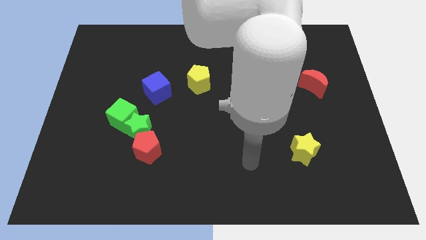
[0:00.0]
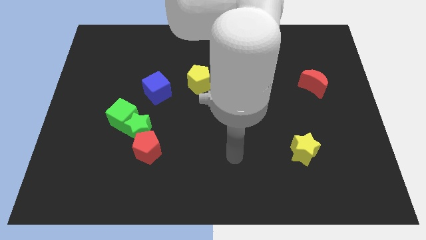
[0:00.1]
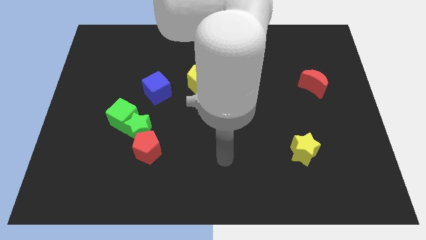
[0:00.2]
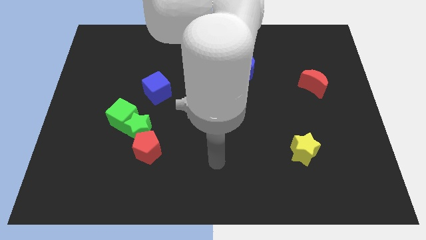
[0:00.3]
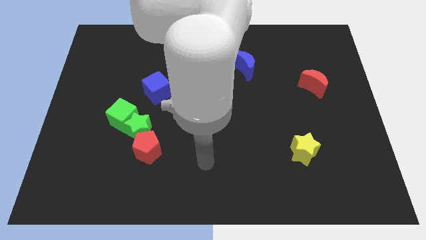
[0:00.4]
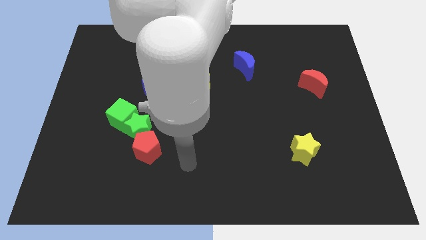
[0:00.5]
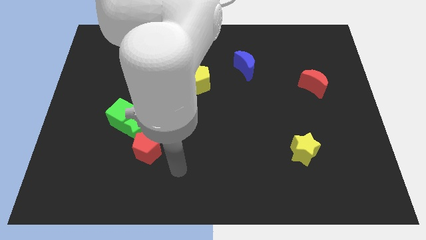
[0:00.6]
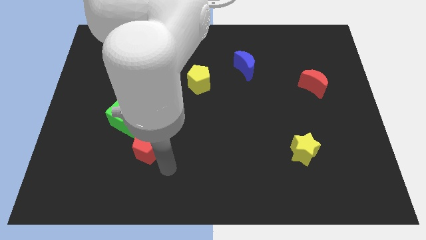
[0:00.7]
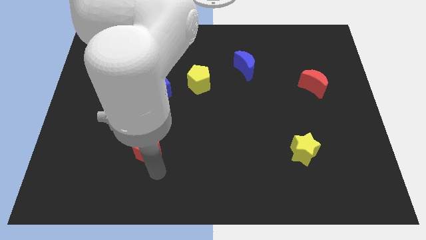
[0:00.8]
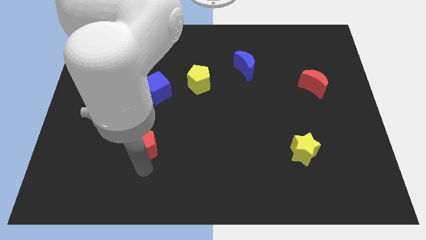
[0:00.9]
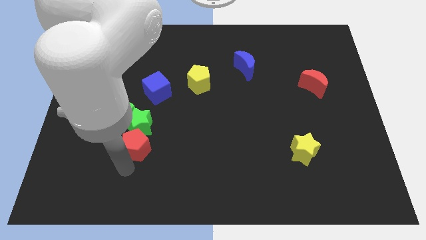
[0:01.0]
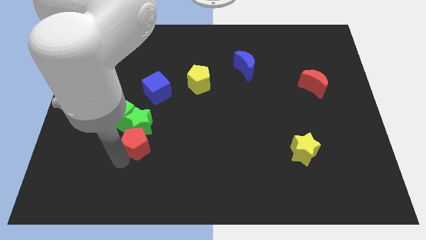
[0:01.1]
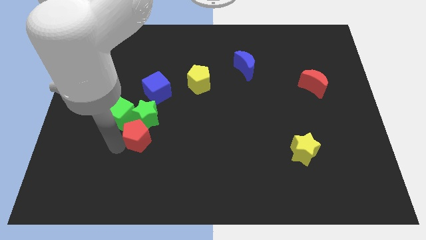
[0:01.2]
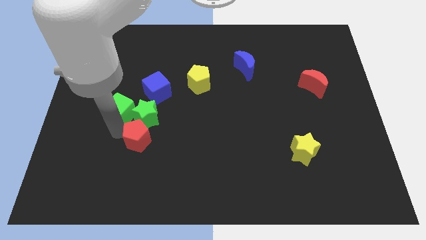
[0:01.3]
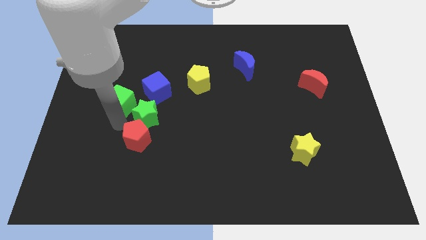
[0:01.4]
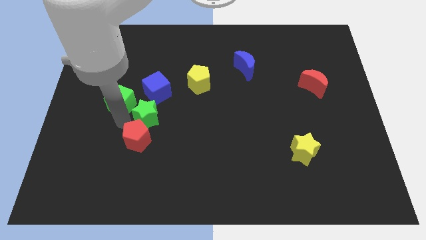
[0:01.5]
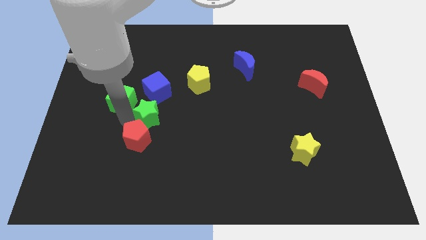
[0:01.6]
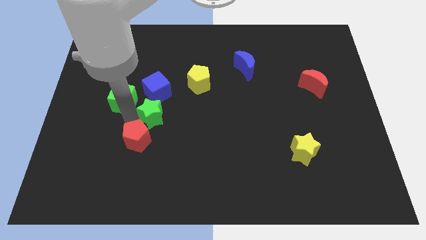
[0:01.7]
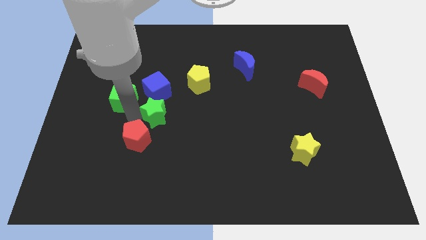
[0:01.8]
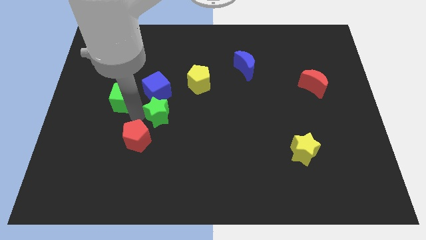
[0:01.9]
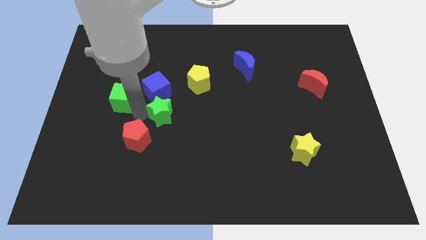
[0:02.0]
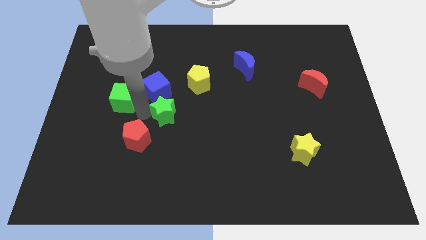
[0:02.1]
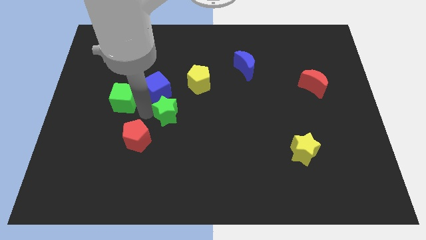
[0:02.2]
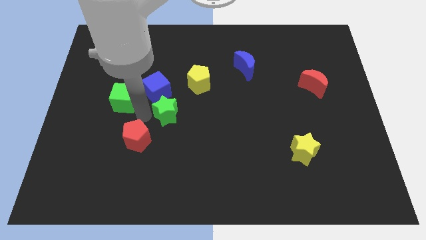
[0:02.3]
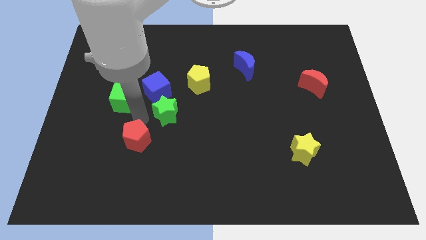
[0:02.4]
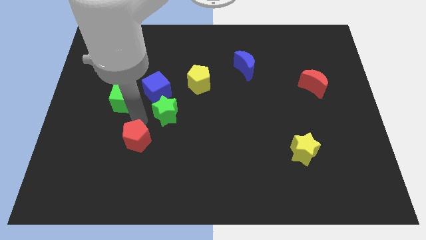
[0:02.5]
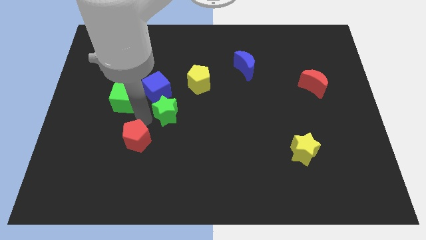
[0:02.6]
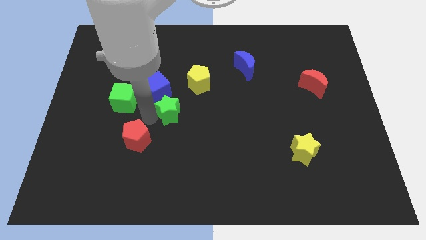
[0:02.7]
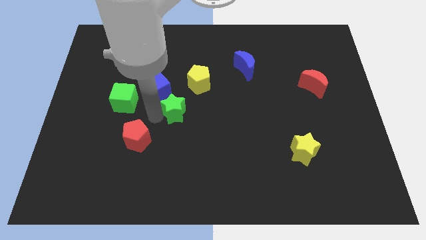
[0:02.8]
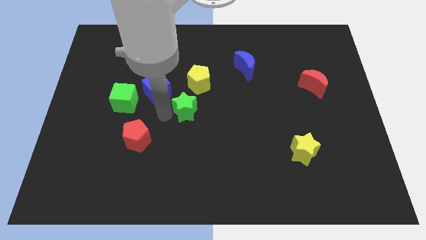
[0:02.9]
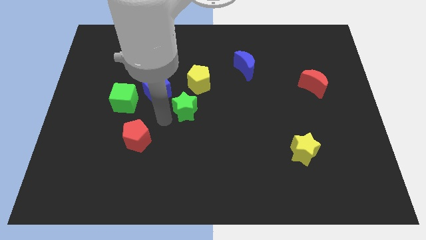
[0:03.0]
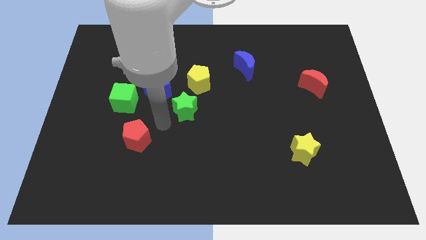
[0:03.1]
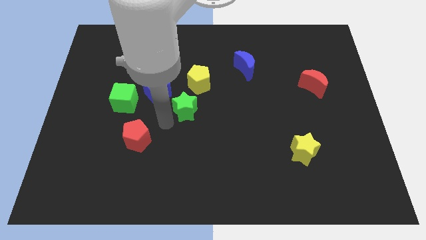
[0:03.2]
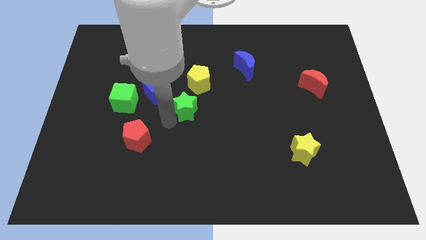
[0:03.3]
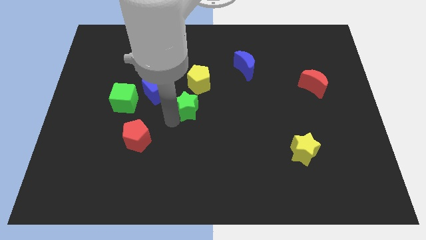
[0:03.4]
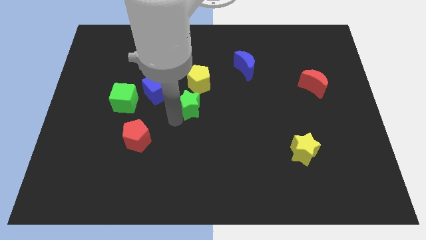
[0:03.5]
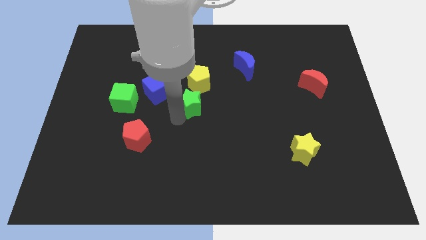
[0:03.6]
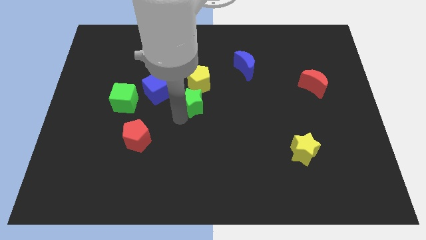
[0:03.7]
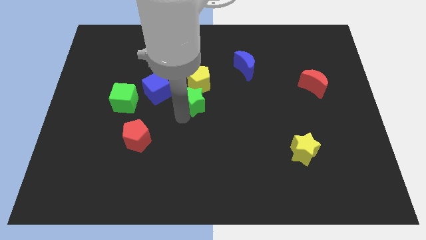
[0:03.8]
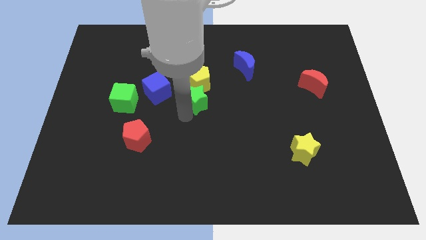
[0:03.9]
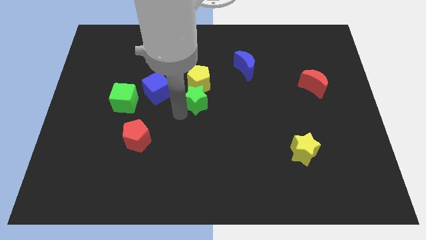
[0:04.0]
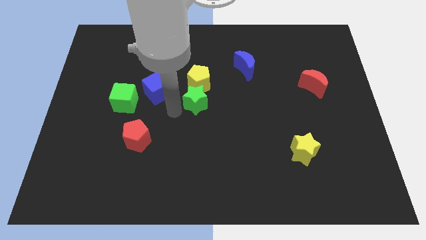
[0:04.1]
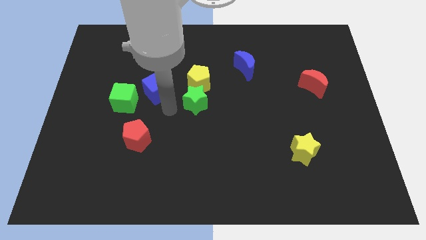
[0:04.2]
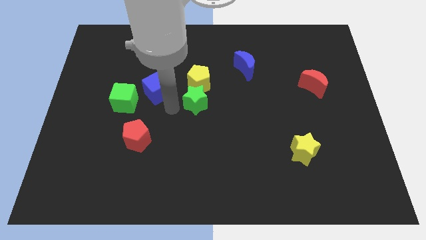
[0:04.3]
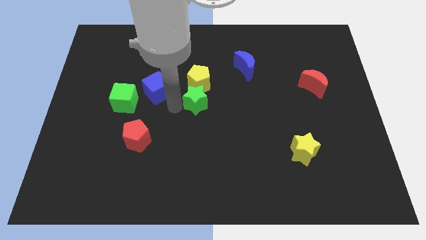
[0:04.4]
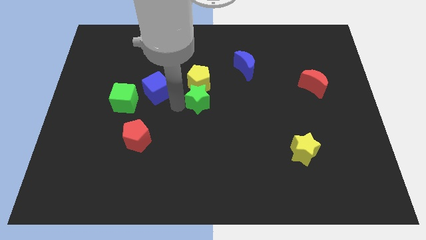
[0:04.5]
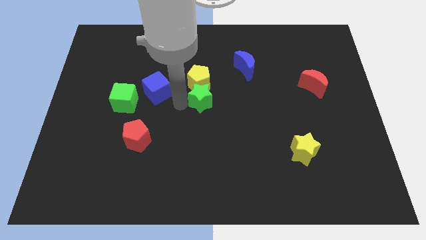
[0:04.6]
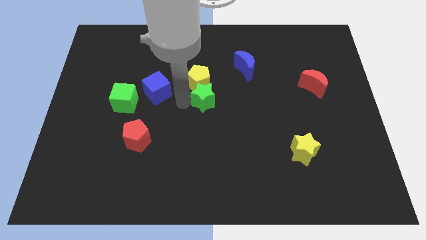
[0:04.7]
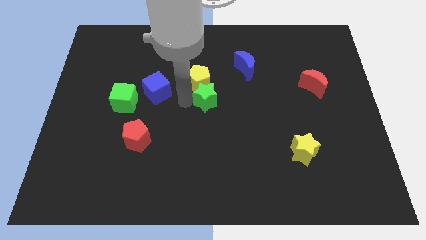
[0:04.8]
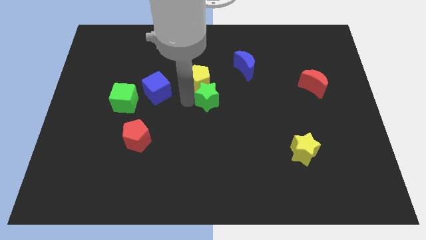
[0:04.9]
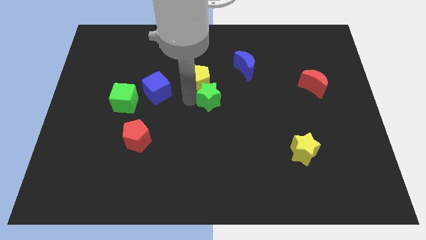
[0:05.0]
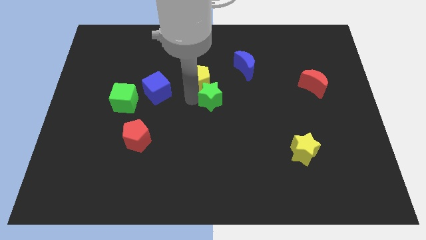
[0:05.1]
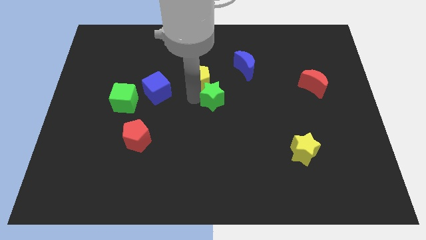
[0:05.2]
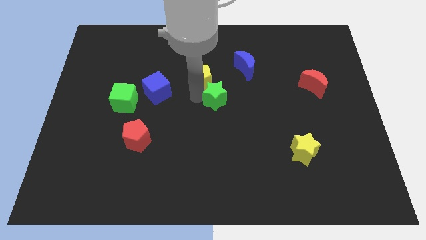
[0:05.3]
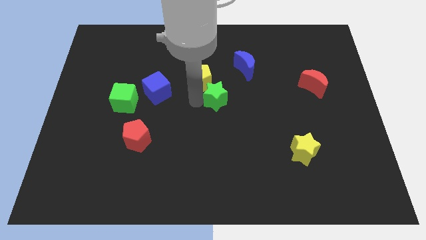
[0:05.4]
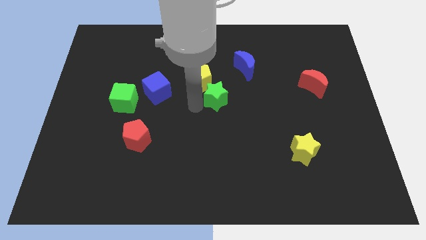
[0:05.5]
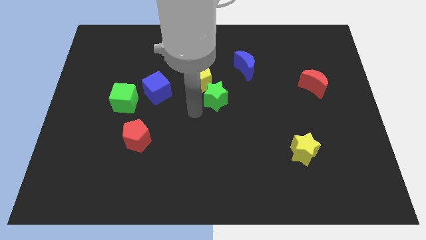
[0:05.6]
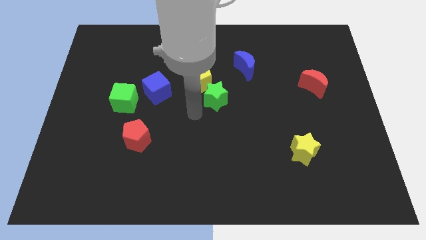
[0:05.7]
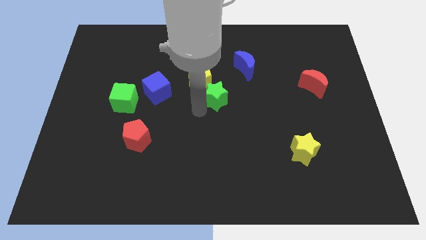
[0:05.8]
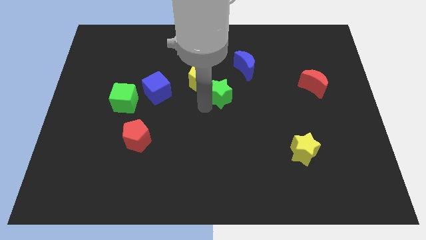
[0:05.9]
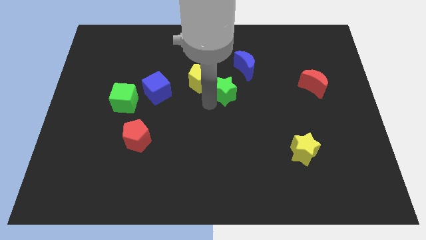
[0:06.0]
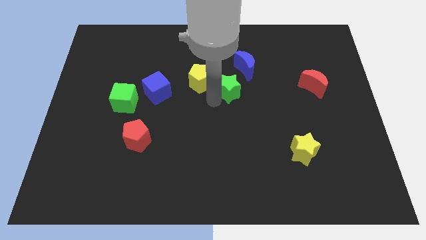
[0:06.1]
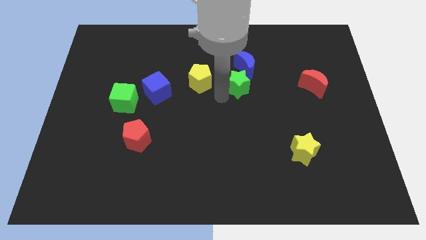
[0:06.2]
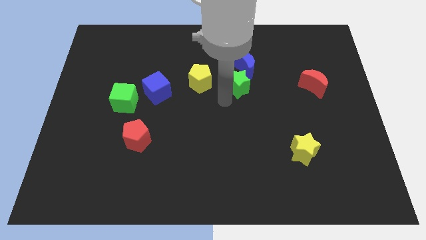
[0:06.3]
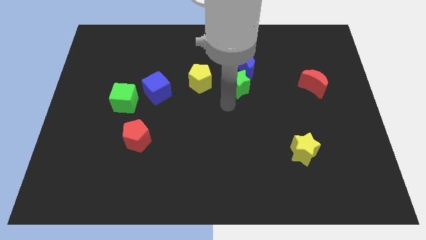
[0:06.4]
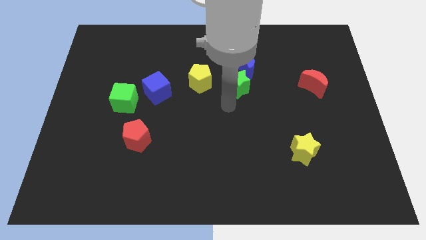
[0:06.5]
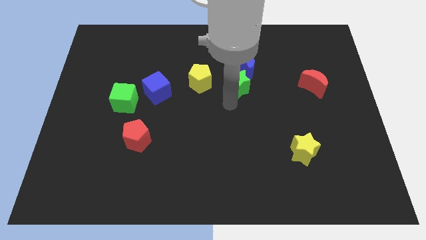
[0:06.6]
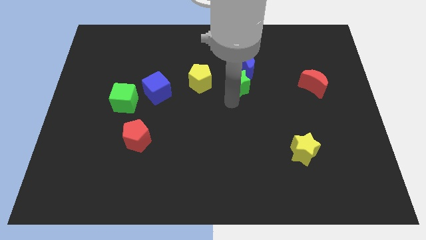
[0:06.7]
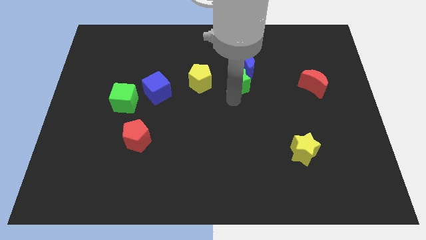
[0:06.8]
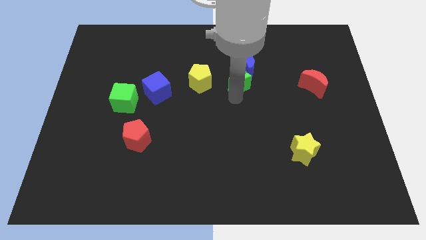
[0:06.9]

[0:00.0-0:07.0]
push the green star towards the blue moon

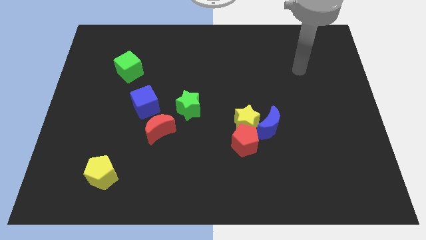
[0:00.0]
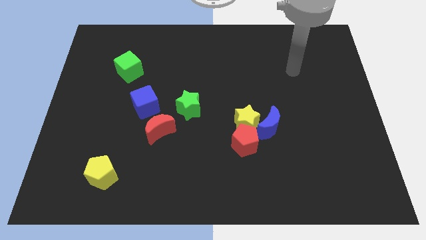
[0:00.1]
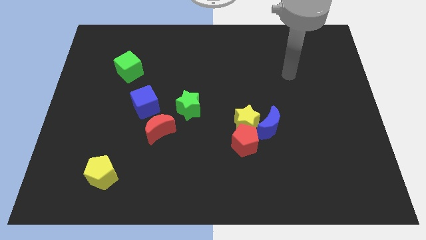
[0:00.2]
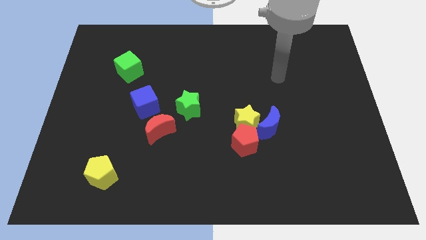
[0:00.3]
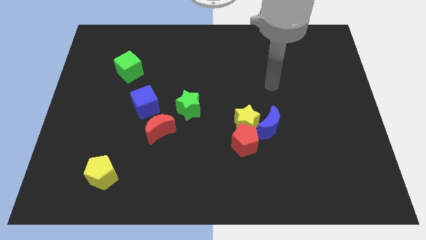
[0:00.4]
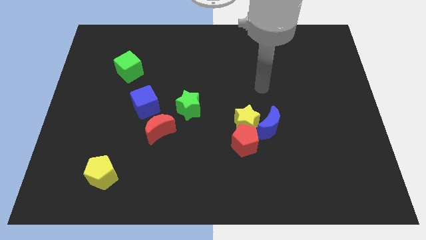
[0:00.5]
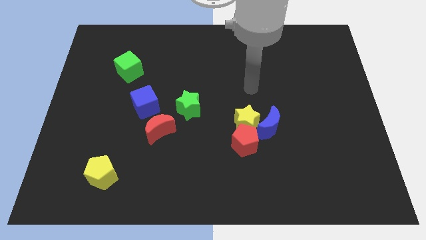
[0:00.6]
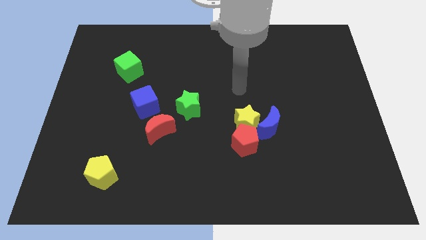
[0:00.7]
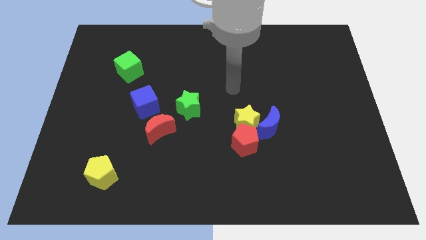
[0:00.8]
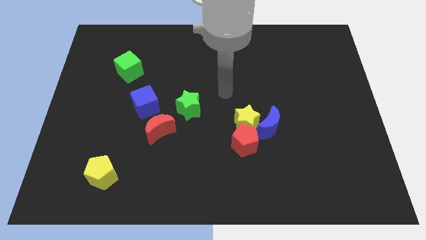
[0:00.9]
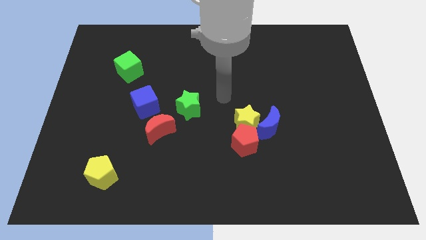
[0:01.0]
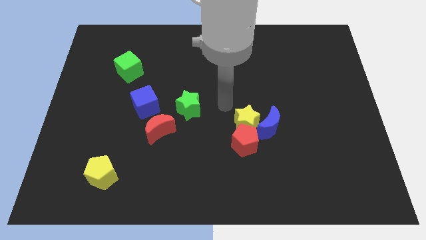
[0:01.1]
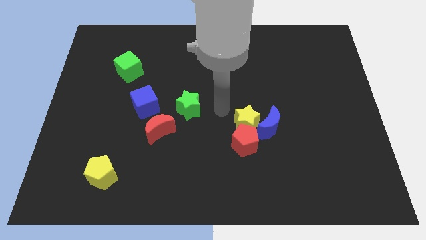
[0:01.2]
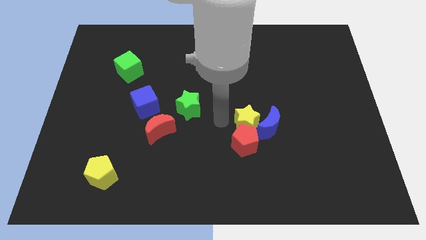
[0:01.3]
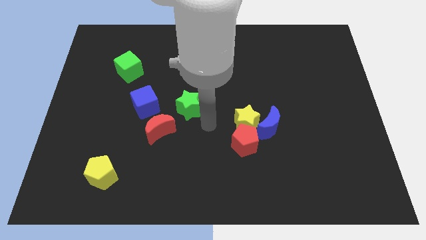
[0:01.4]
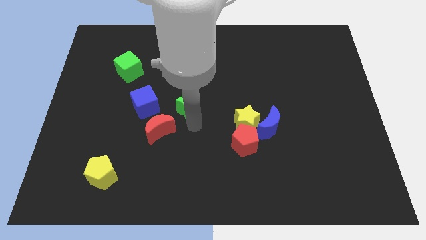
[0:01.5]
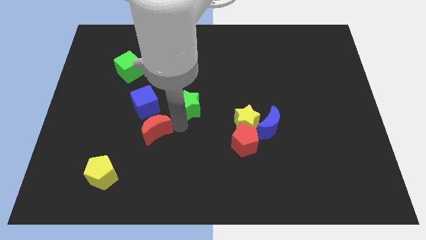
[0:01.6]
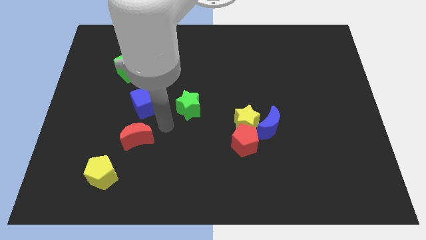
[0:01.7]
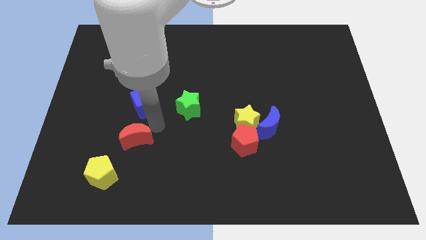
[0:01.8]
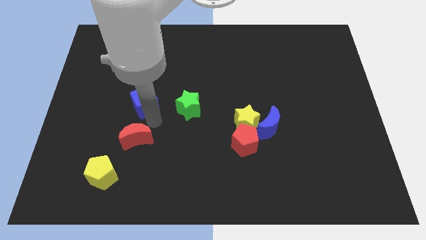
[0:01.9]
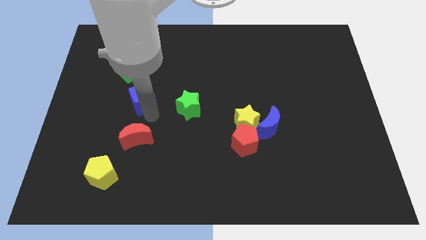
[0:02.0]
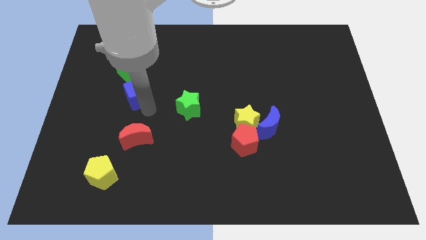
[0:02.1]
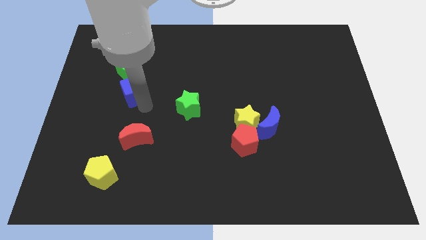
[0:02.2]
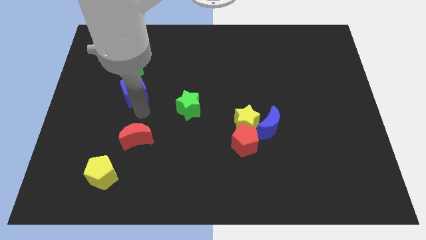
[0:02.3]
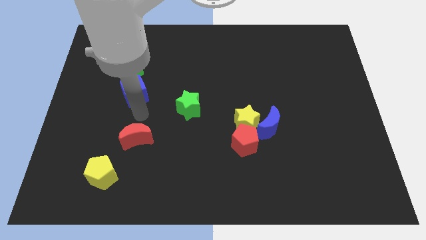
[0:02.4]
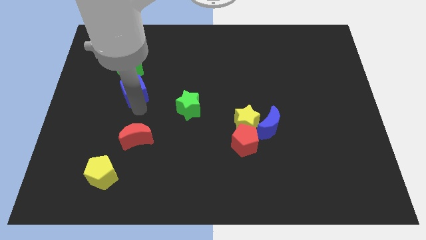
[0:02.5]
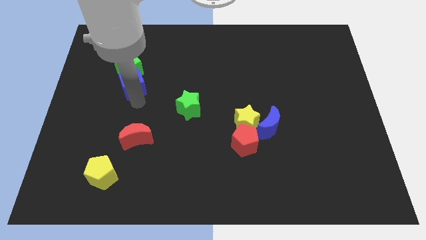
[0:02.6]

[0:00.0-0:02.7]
move the blue cube towards the green cube
